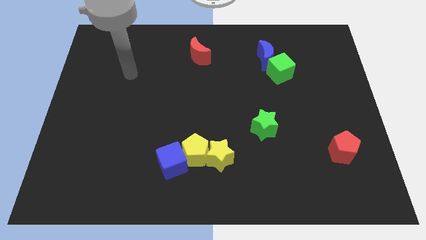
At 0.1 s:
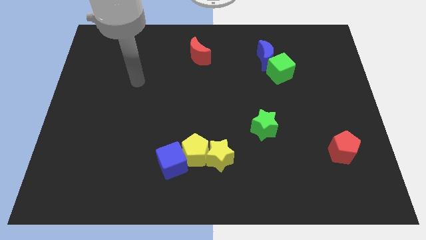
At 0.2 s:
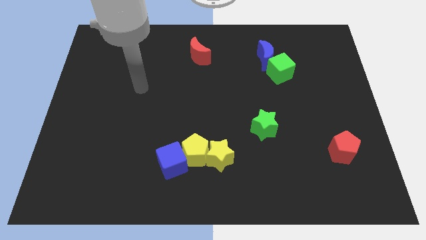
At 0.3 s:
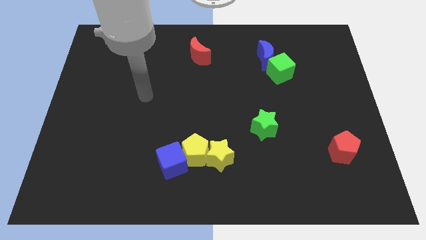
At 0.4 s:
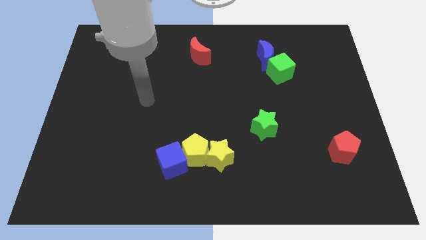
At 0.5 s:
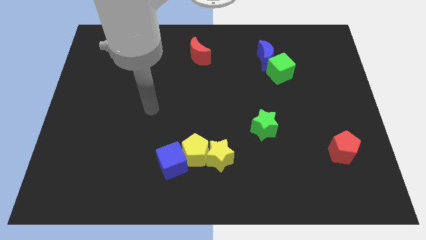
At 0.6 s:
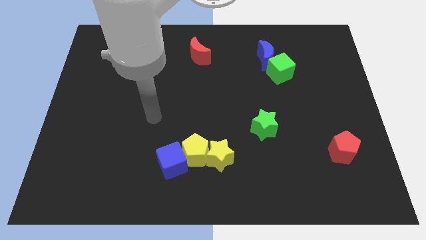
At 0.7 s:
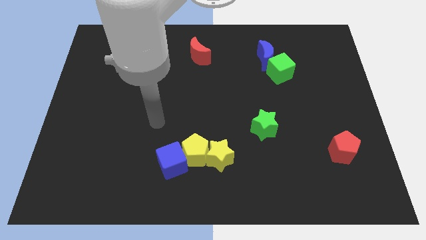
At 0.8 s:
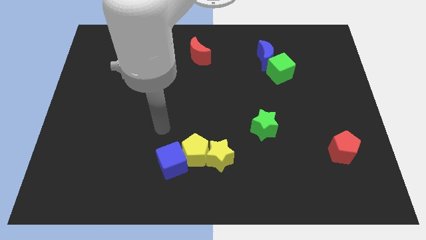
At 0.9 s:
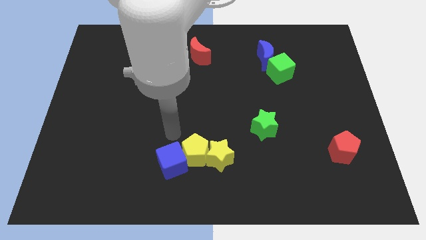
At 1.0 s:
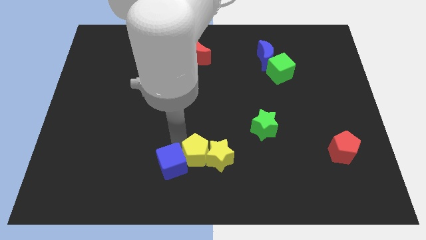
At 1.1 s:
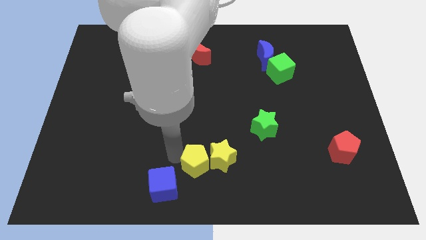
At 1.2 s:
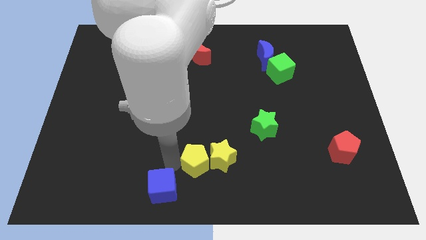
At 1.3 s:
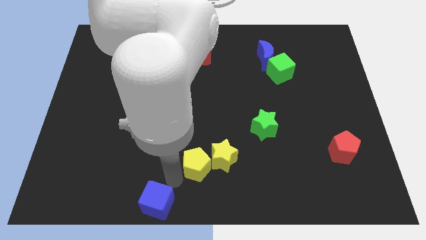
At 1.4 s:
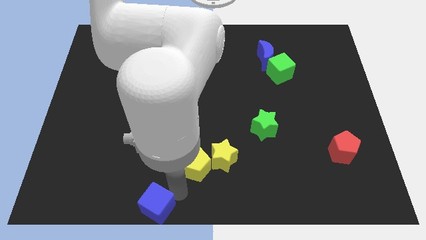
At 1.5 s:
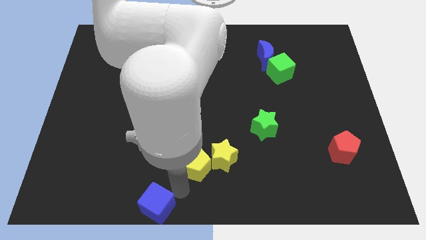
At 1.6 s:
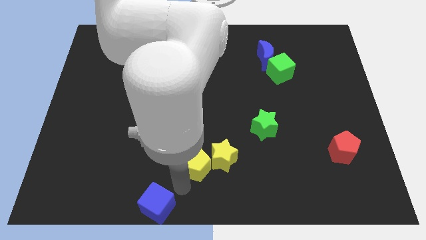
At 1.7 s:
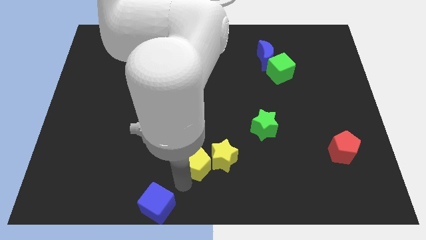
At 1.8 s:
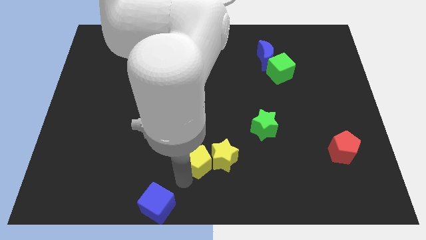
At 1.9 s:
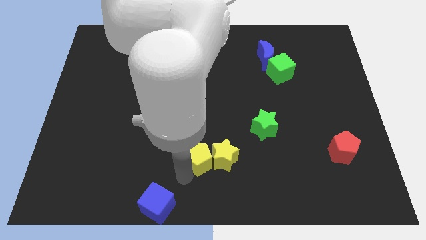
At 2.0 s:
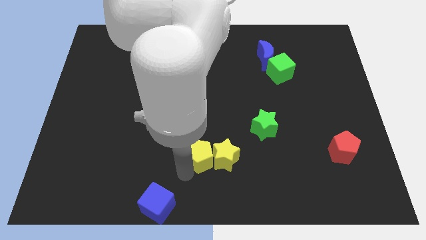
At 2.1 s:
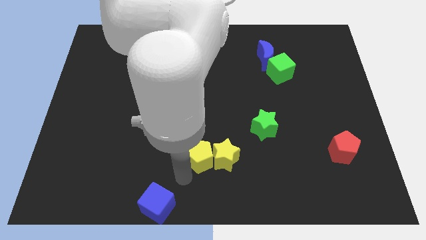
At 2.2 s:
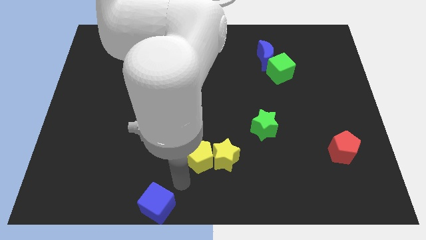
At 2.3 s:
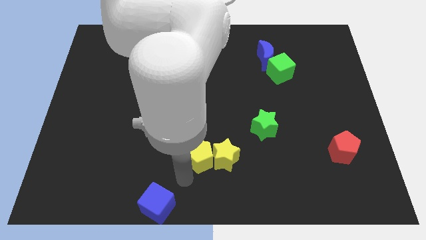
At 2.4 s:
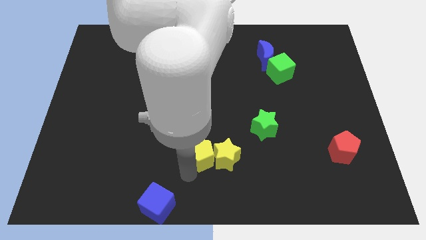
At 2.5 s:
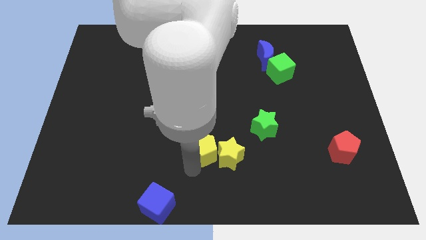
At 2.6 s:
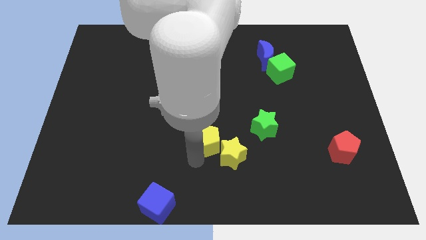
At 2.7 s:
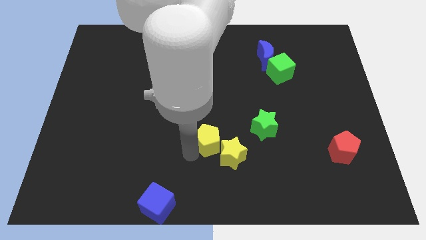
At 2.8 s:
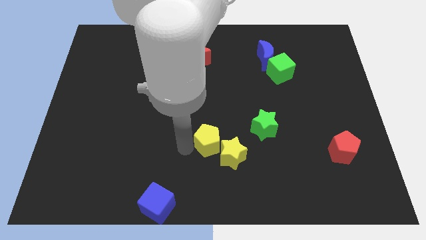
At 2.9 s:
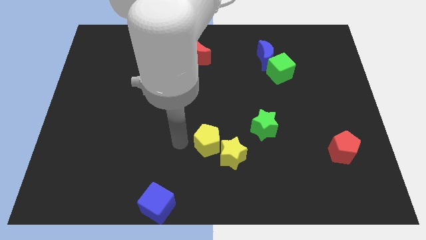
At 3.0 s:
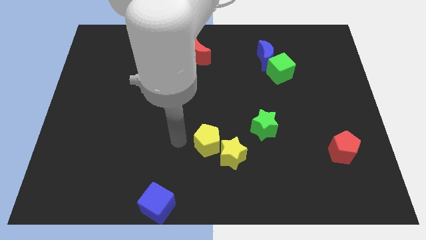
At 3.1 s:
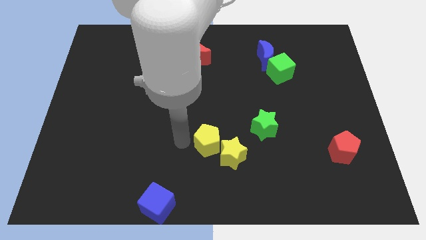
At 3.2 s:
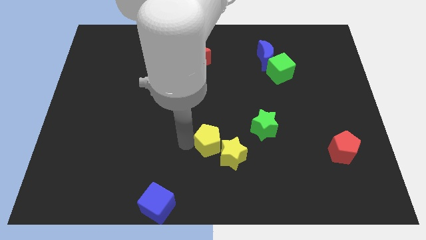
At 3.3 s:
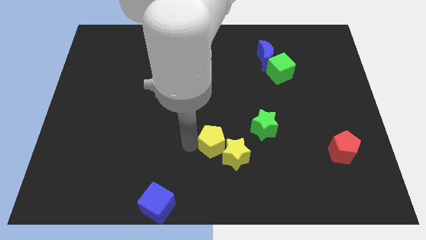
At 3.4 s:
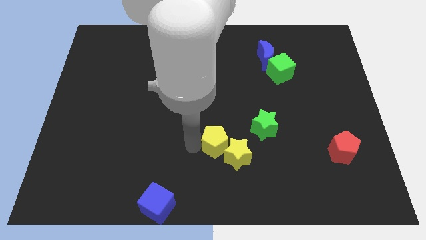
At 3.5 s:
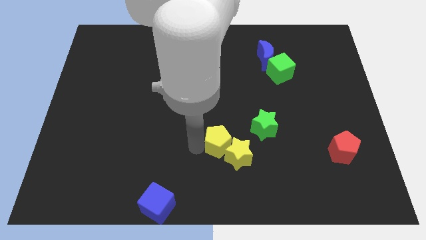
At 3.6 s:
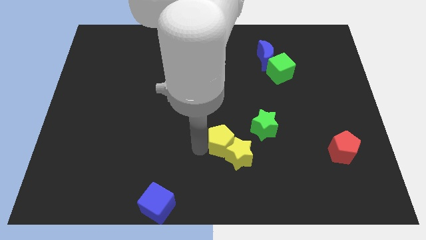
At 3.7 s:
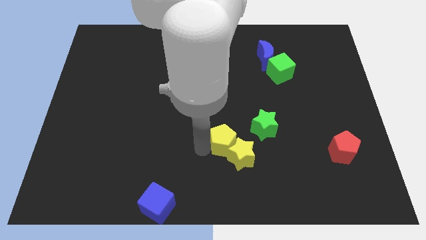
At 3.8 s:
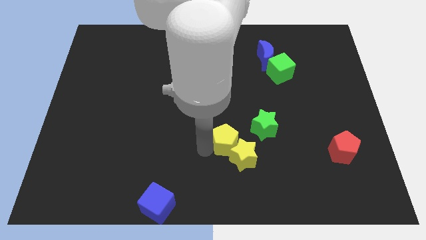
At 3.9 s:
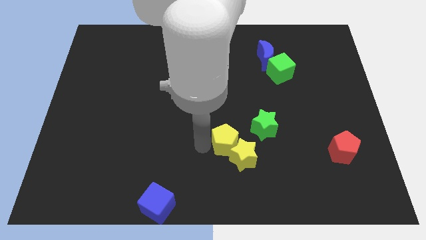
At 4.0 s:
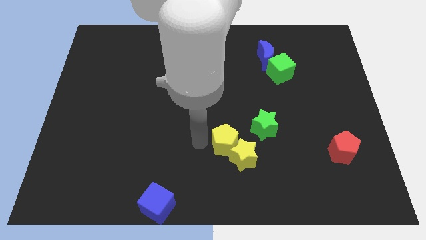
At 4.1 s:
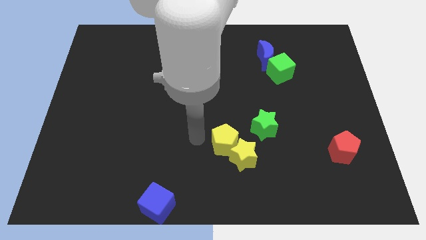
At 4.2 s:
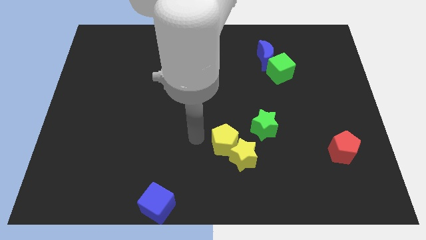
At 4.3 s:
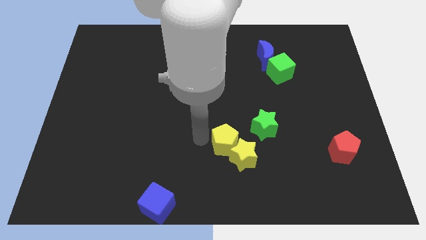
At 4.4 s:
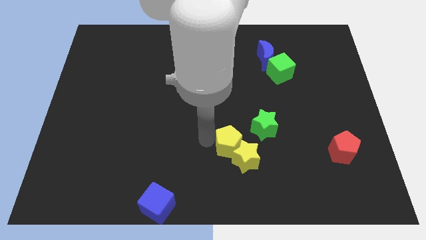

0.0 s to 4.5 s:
slide the yellow pentagon right a bit

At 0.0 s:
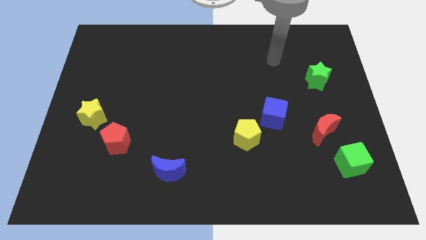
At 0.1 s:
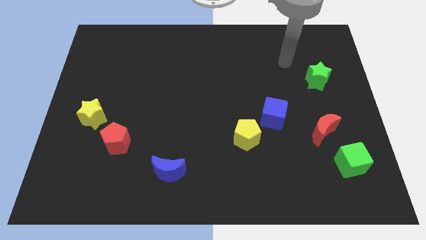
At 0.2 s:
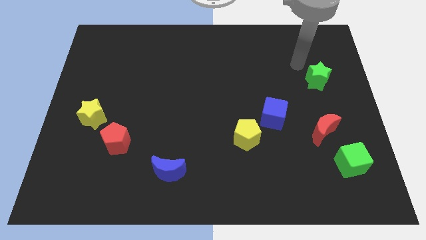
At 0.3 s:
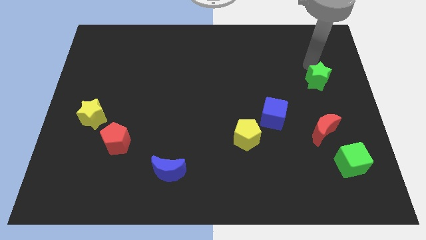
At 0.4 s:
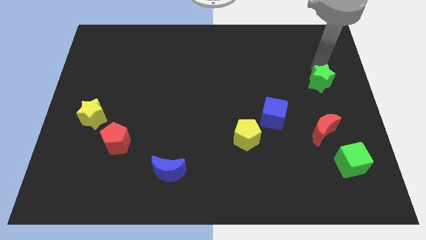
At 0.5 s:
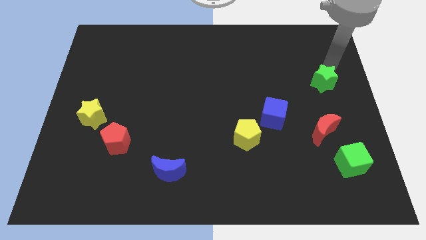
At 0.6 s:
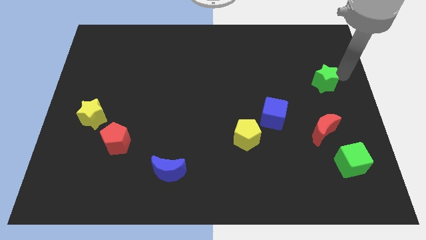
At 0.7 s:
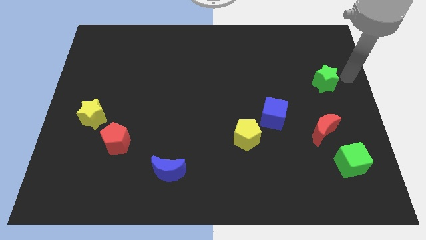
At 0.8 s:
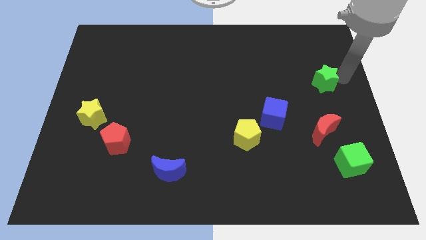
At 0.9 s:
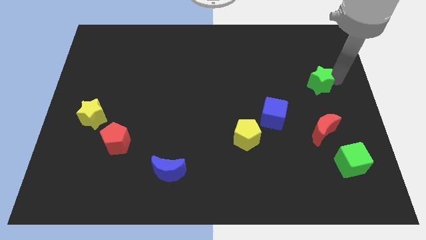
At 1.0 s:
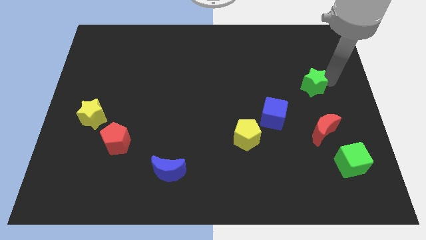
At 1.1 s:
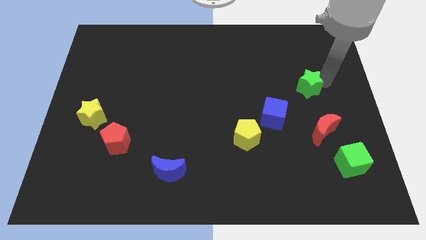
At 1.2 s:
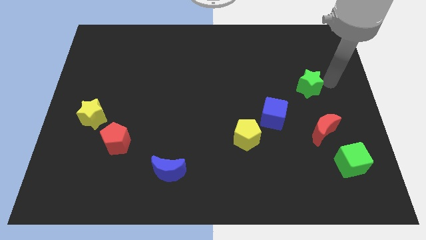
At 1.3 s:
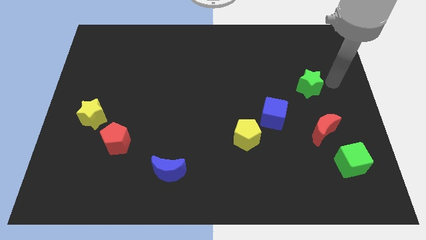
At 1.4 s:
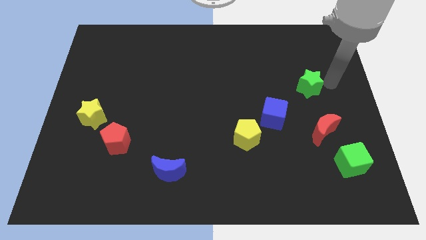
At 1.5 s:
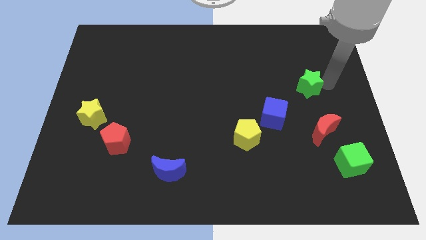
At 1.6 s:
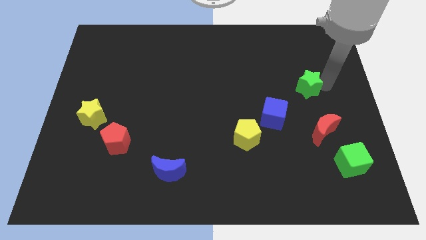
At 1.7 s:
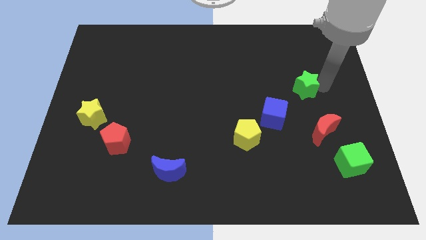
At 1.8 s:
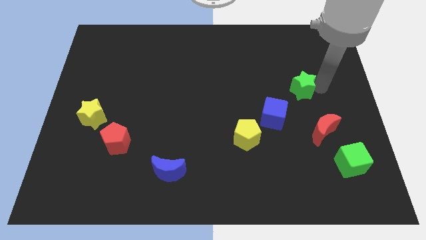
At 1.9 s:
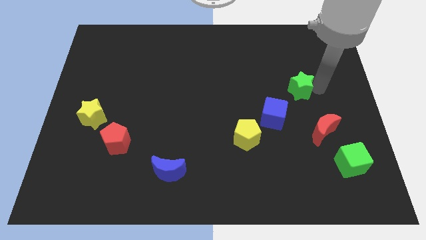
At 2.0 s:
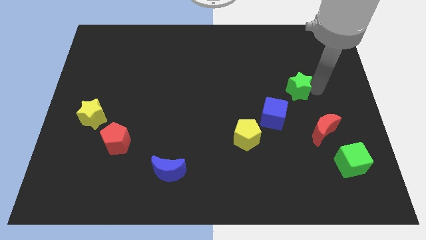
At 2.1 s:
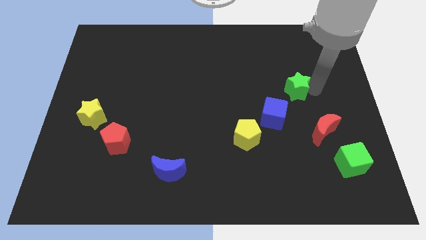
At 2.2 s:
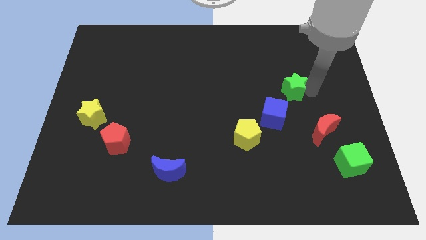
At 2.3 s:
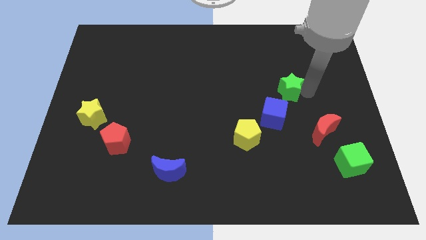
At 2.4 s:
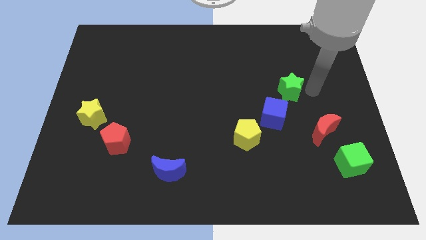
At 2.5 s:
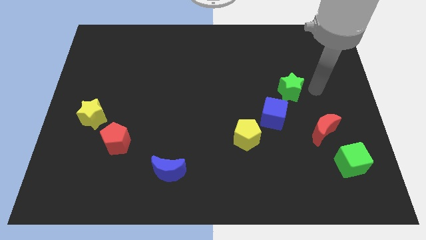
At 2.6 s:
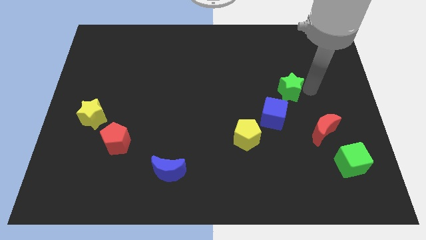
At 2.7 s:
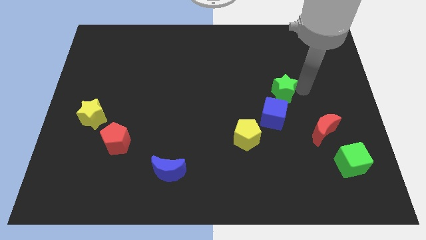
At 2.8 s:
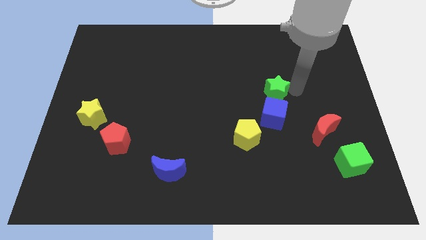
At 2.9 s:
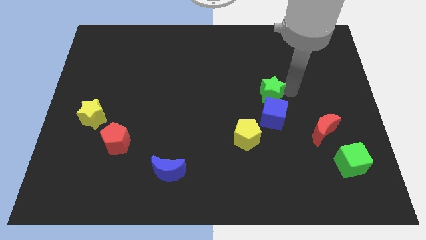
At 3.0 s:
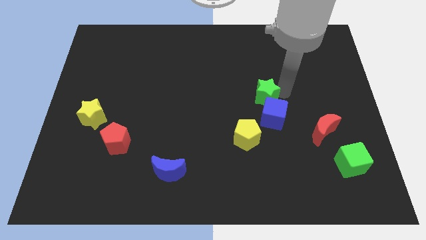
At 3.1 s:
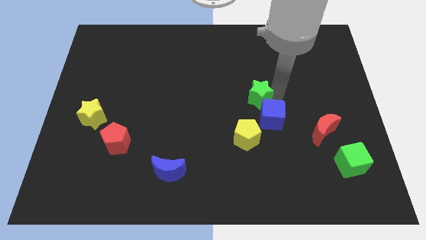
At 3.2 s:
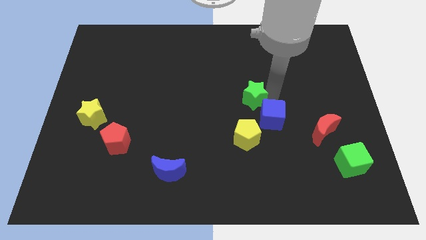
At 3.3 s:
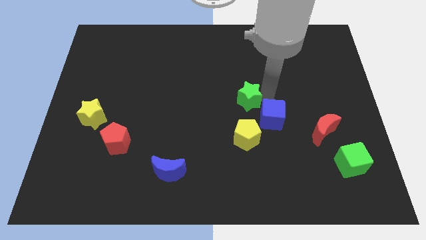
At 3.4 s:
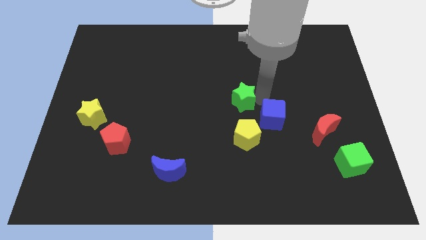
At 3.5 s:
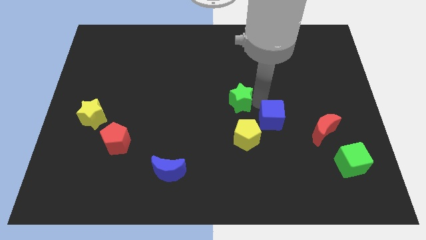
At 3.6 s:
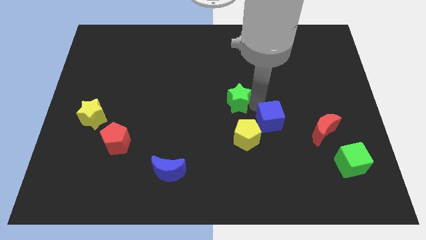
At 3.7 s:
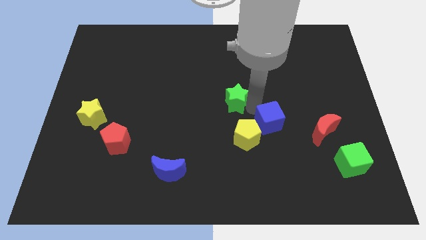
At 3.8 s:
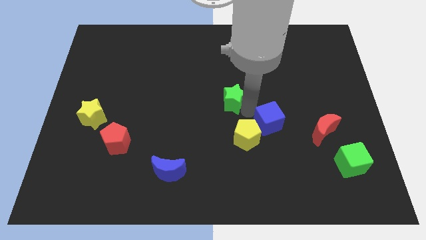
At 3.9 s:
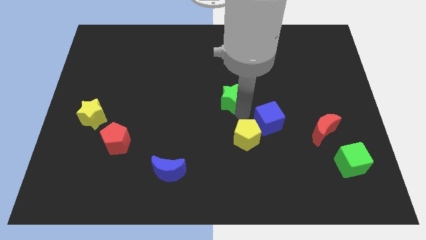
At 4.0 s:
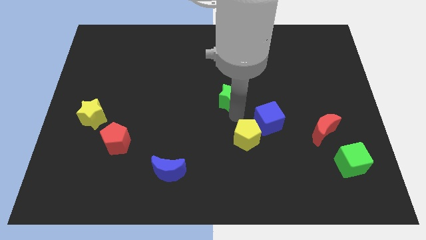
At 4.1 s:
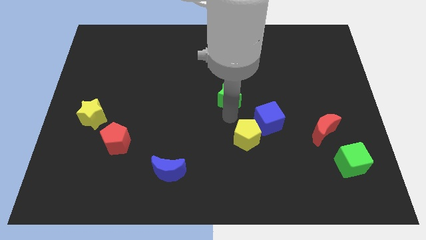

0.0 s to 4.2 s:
slide the green star left

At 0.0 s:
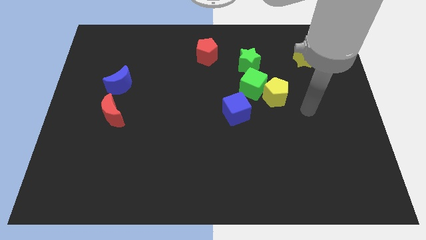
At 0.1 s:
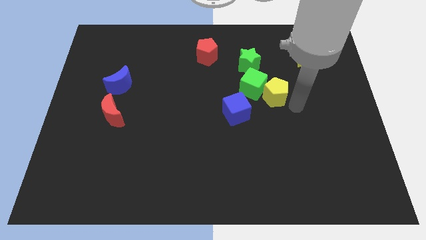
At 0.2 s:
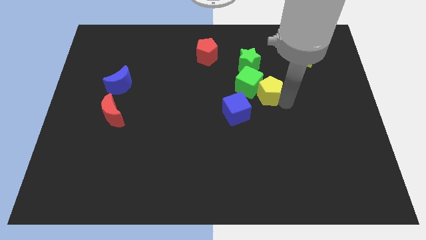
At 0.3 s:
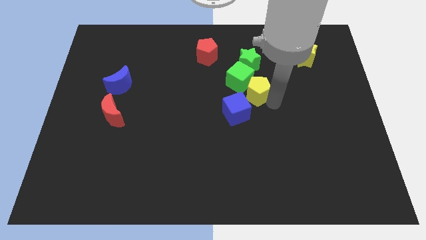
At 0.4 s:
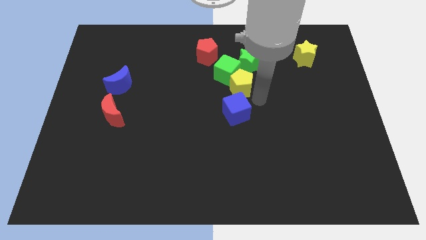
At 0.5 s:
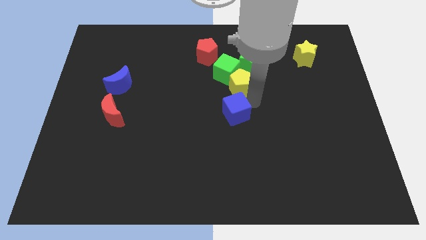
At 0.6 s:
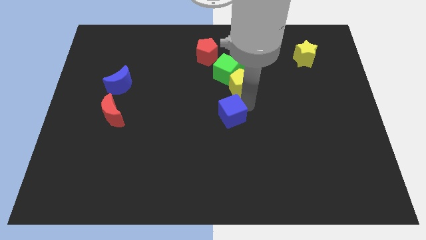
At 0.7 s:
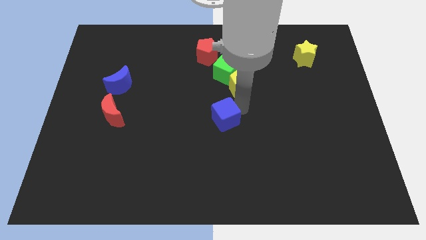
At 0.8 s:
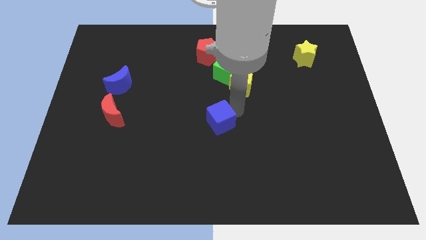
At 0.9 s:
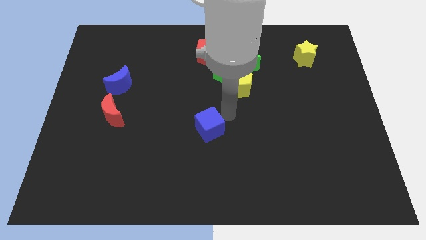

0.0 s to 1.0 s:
slightly slide the blue cube down and left diagonally
